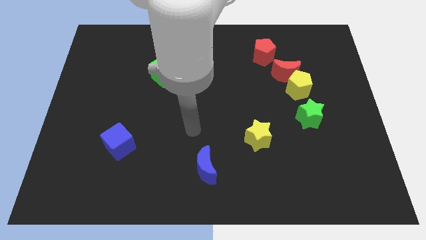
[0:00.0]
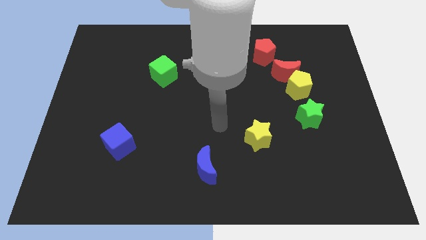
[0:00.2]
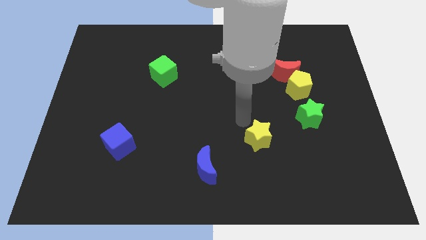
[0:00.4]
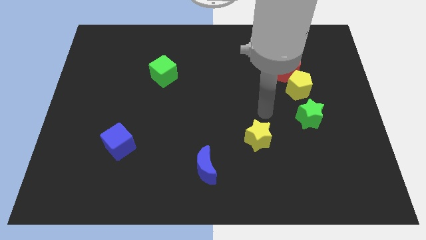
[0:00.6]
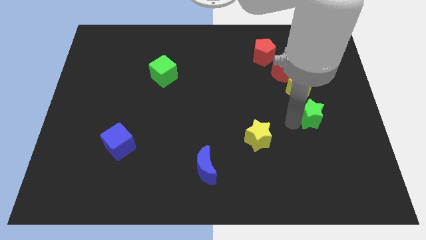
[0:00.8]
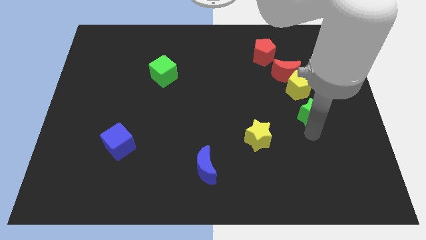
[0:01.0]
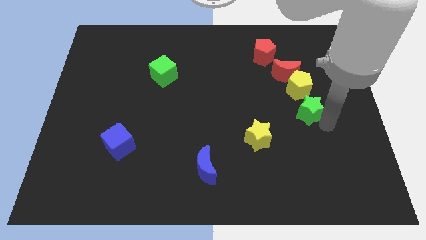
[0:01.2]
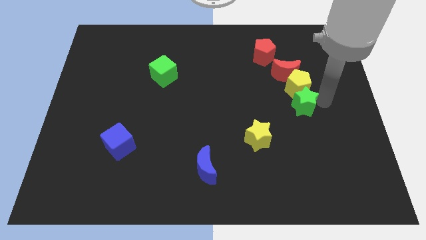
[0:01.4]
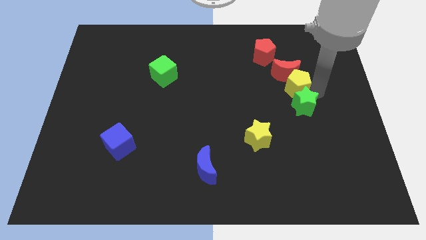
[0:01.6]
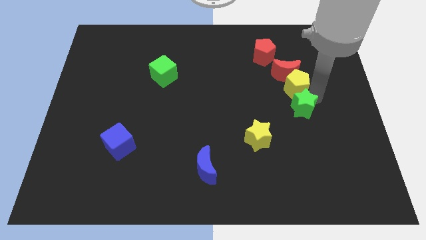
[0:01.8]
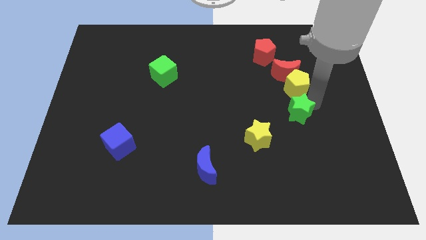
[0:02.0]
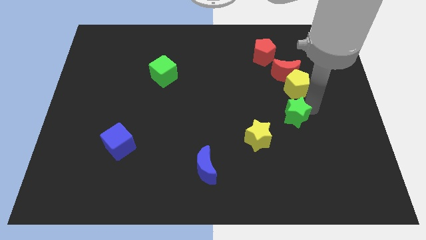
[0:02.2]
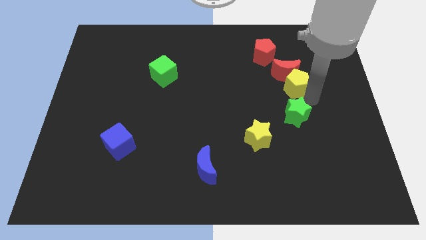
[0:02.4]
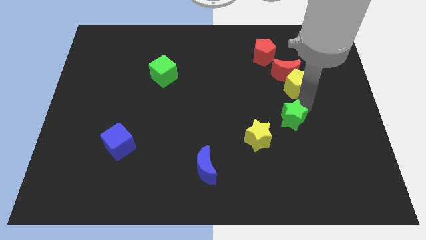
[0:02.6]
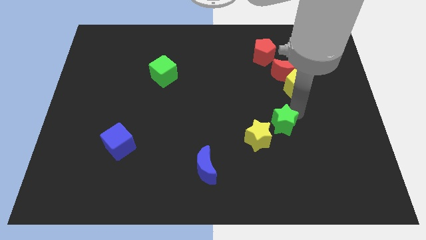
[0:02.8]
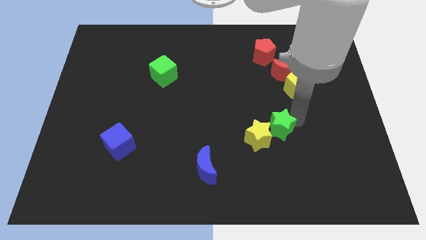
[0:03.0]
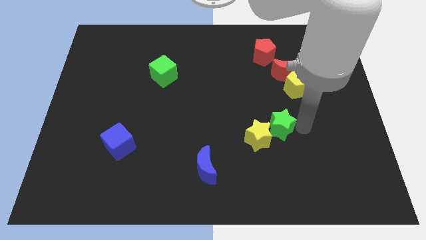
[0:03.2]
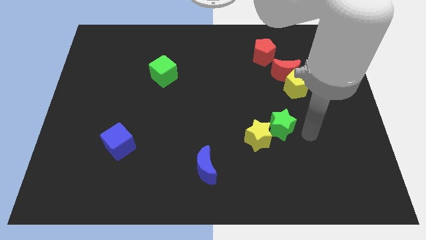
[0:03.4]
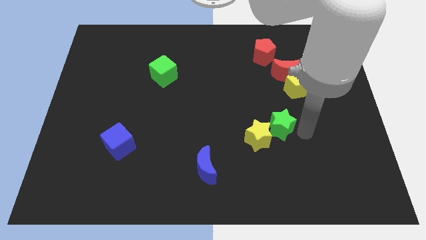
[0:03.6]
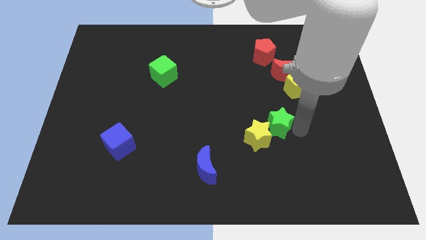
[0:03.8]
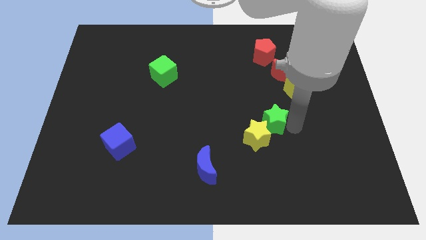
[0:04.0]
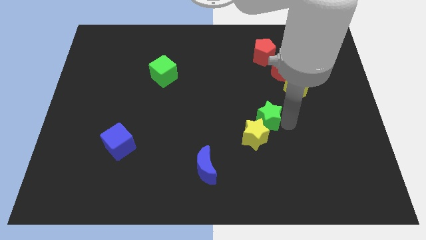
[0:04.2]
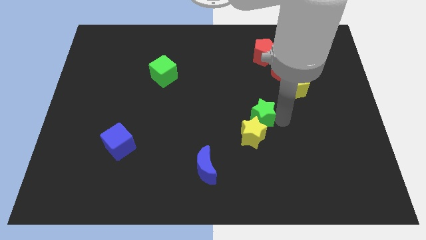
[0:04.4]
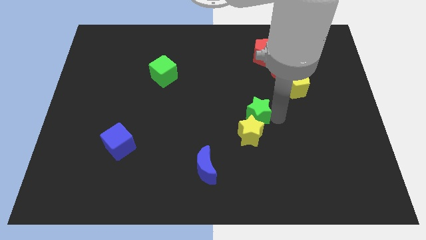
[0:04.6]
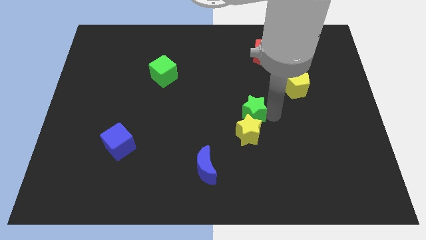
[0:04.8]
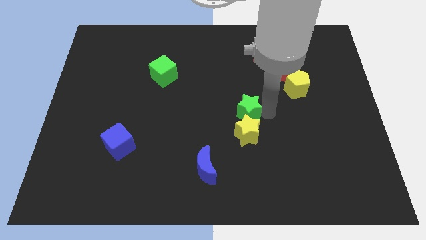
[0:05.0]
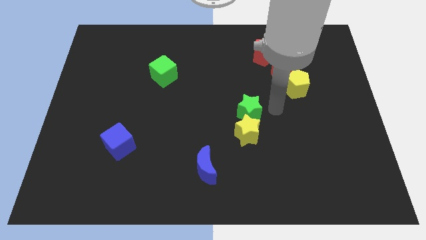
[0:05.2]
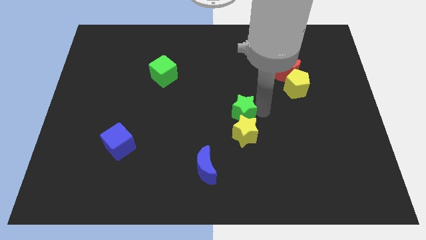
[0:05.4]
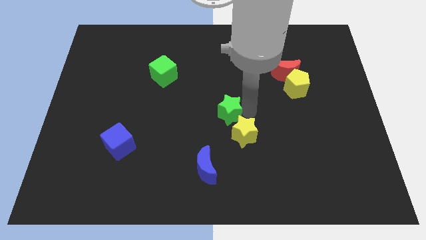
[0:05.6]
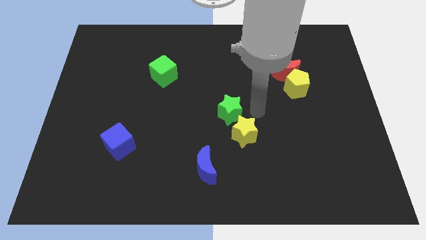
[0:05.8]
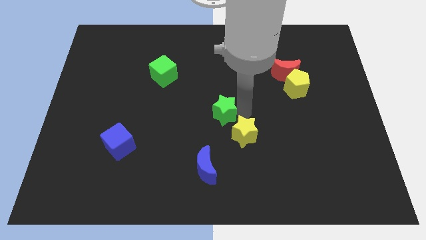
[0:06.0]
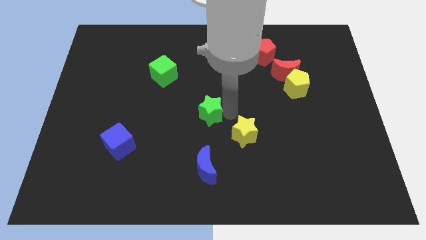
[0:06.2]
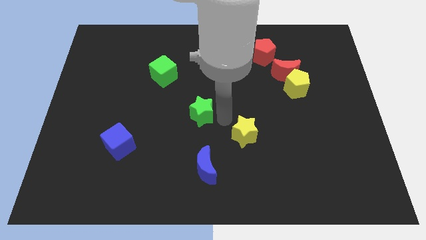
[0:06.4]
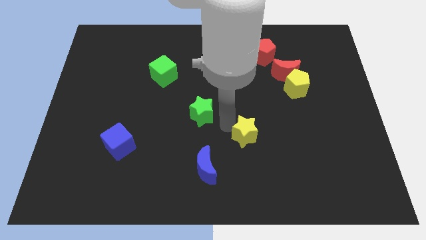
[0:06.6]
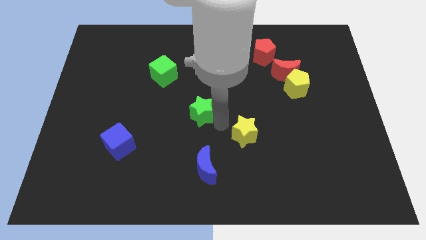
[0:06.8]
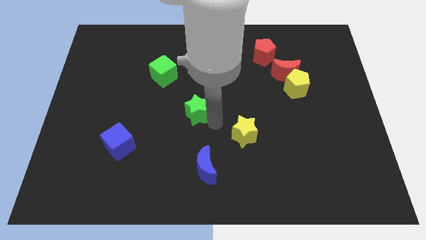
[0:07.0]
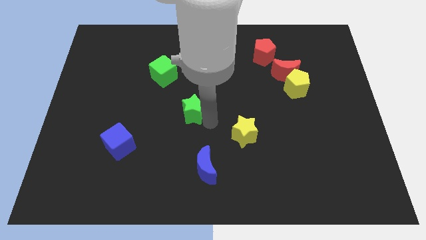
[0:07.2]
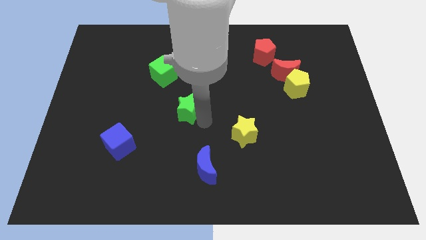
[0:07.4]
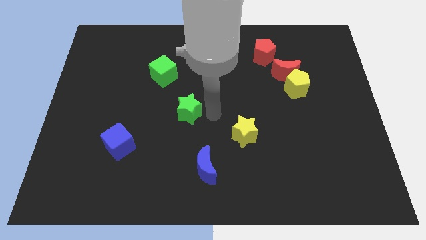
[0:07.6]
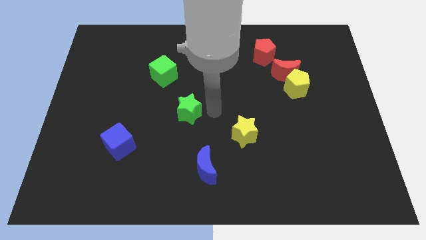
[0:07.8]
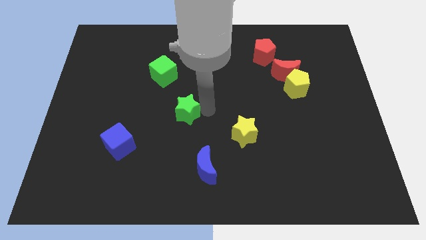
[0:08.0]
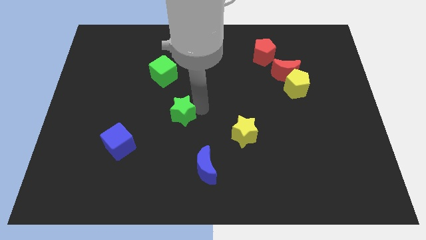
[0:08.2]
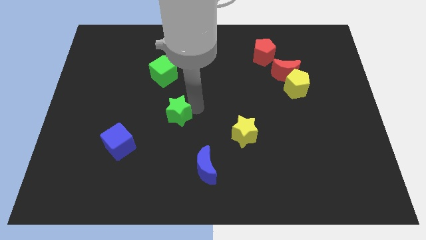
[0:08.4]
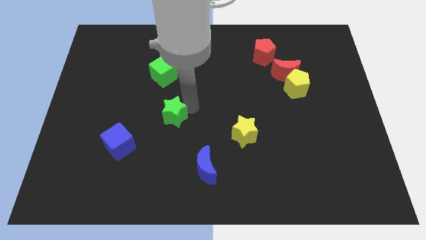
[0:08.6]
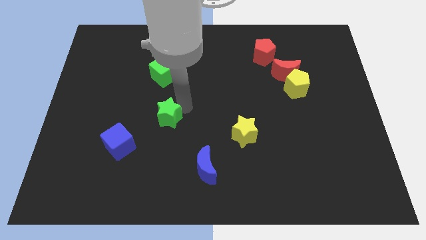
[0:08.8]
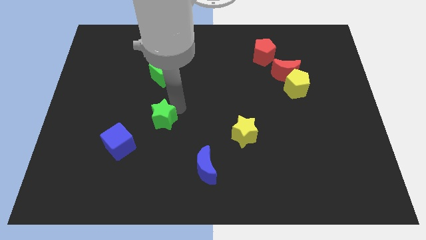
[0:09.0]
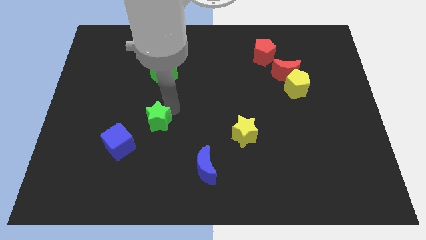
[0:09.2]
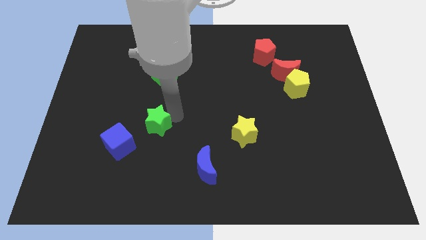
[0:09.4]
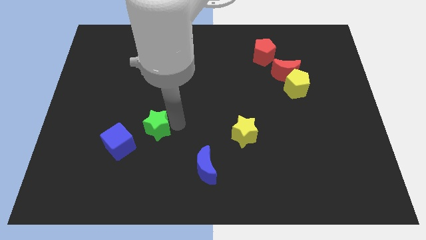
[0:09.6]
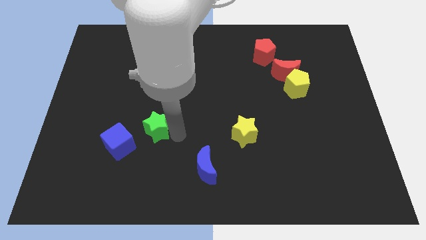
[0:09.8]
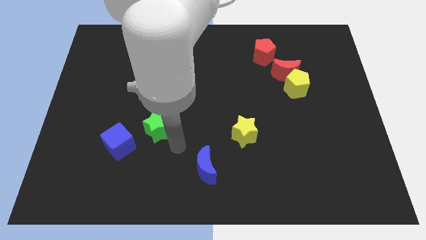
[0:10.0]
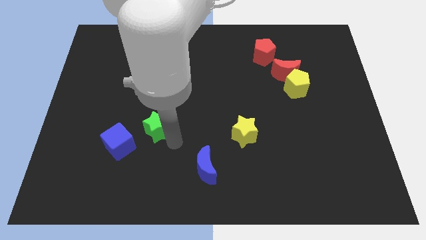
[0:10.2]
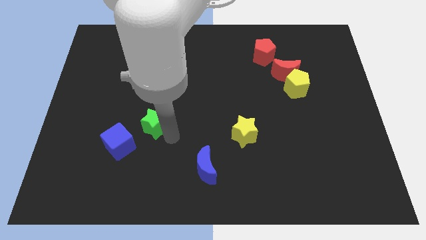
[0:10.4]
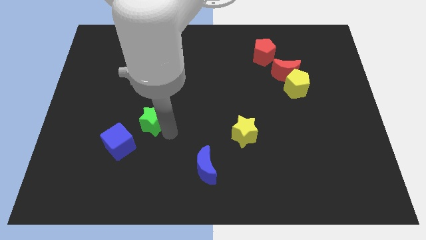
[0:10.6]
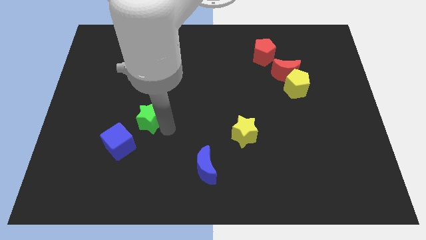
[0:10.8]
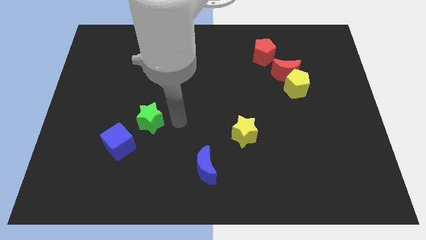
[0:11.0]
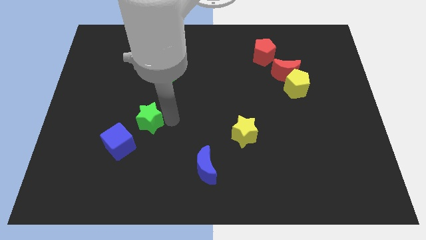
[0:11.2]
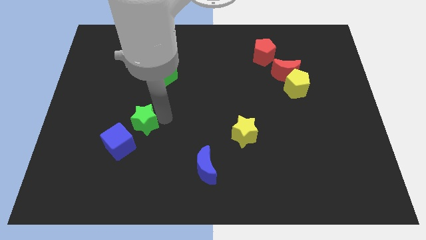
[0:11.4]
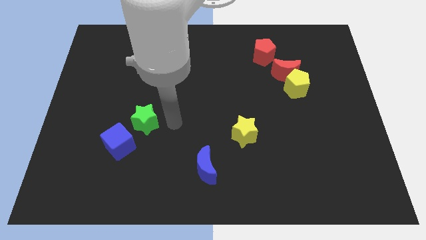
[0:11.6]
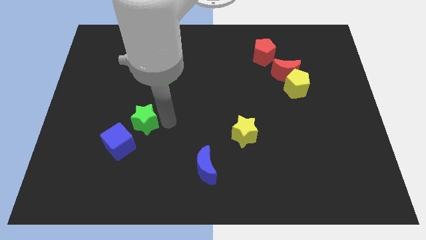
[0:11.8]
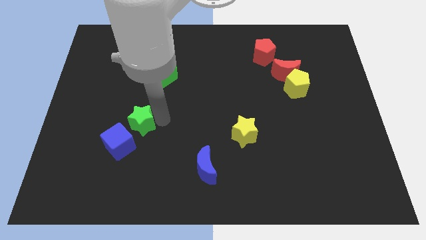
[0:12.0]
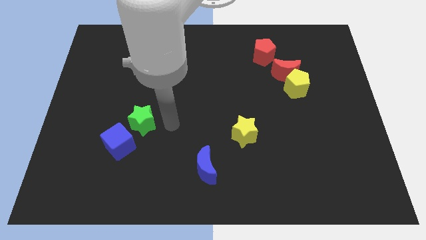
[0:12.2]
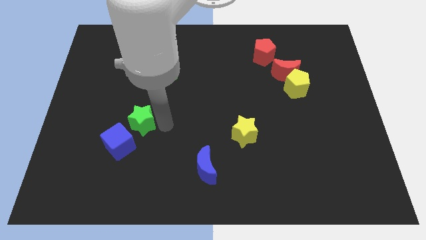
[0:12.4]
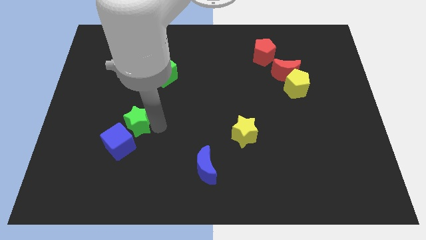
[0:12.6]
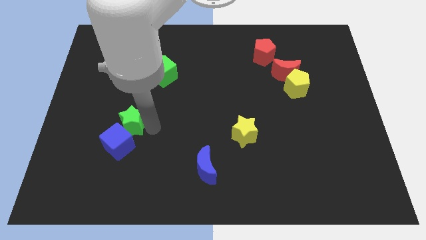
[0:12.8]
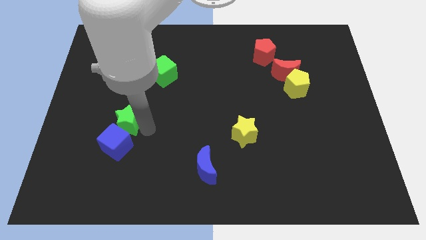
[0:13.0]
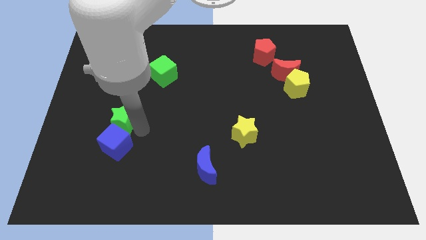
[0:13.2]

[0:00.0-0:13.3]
put the green star to the top left of the blue cube

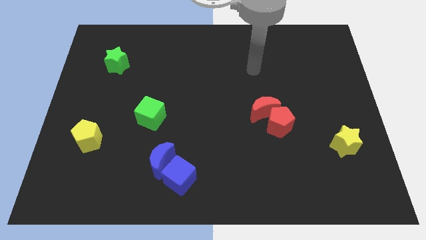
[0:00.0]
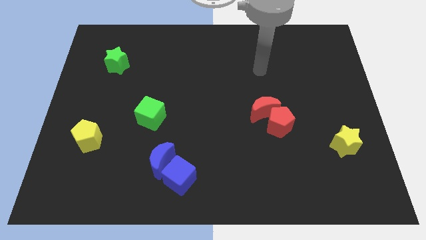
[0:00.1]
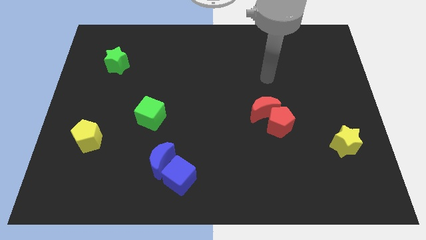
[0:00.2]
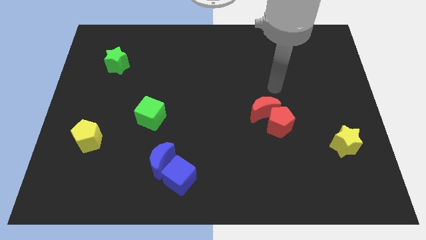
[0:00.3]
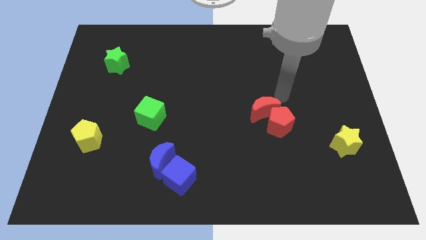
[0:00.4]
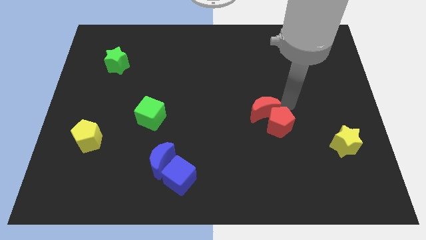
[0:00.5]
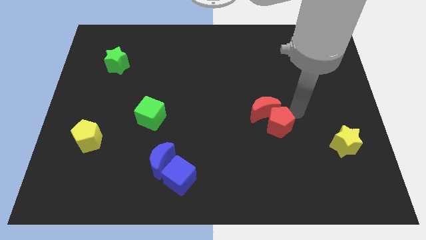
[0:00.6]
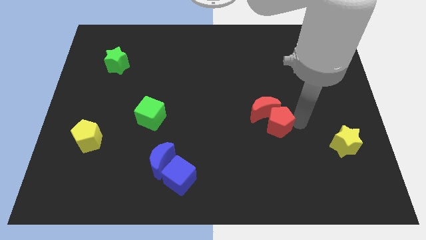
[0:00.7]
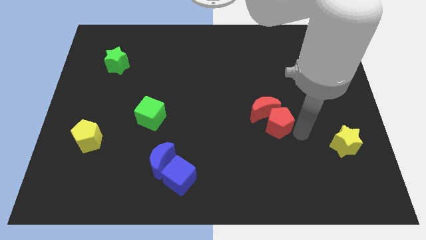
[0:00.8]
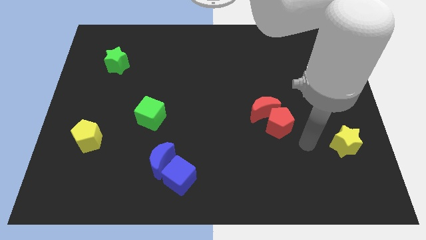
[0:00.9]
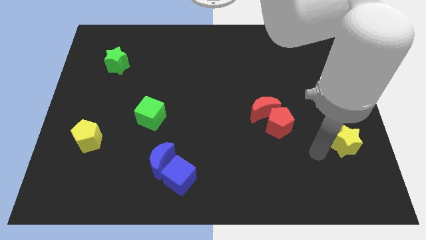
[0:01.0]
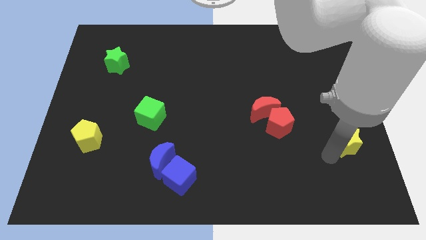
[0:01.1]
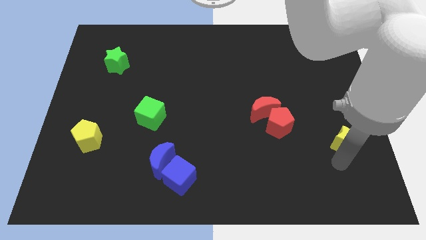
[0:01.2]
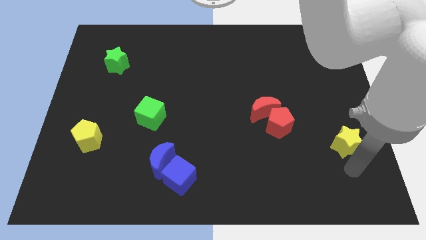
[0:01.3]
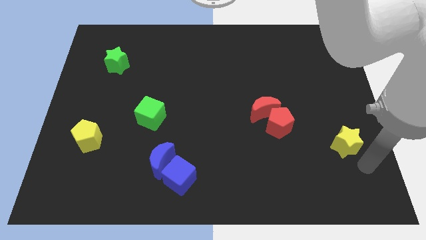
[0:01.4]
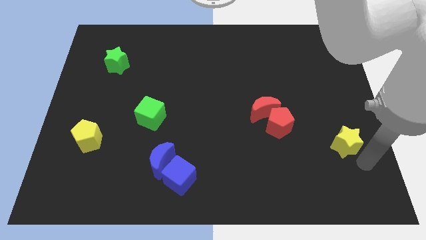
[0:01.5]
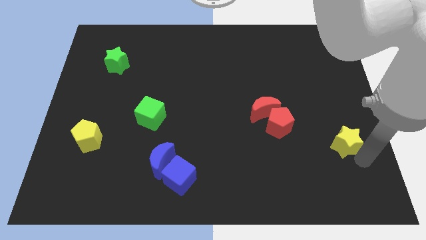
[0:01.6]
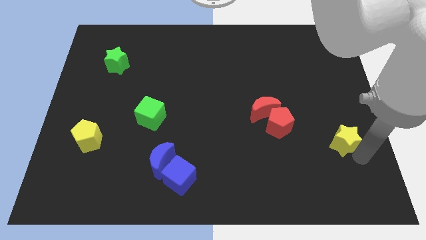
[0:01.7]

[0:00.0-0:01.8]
move the yellow star just right of the red pentagon
